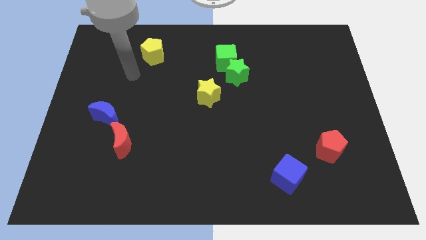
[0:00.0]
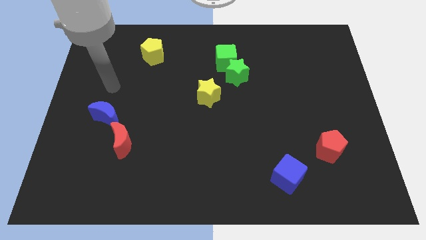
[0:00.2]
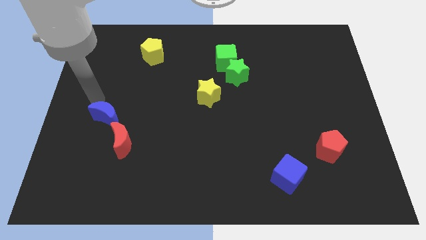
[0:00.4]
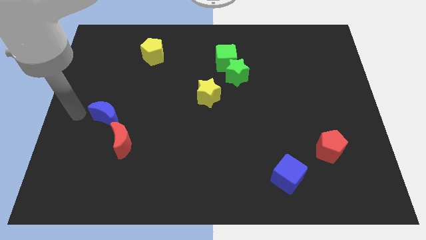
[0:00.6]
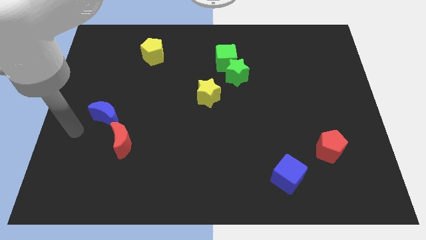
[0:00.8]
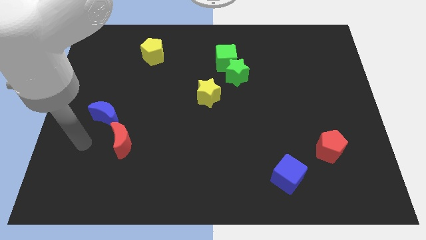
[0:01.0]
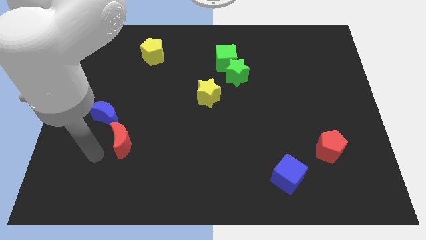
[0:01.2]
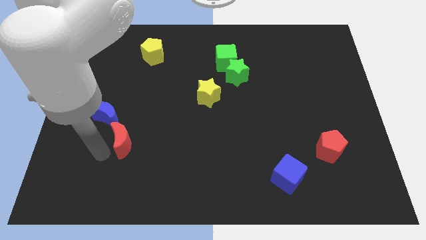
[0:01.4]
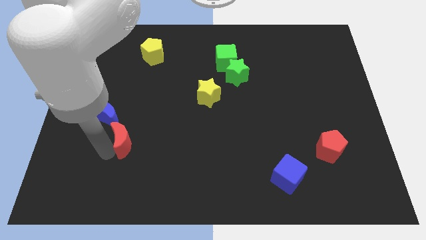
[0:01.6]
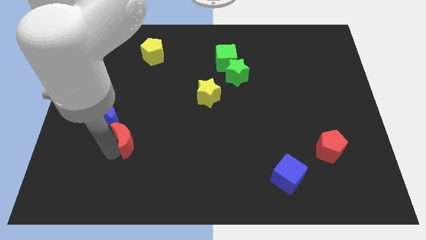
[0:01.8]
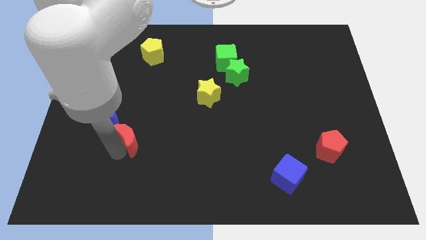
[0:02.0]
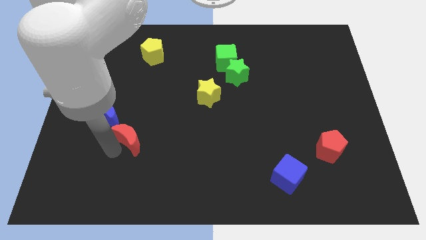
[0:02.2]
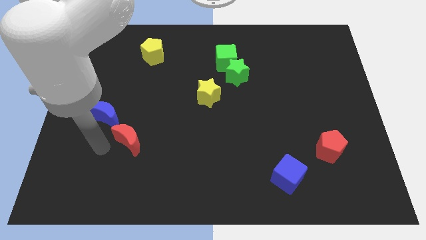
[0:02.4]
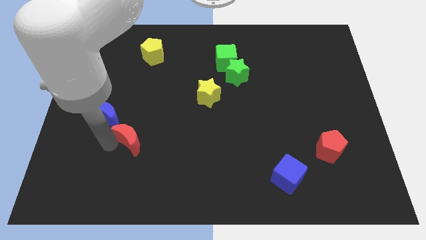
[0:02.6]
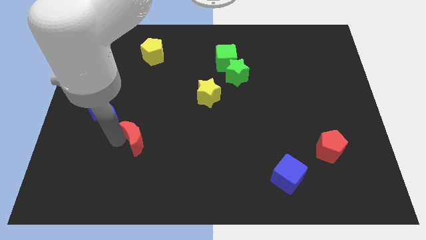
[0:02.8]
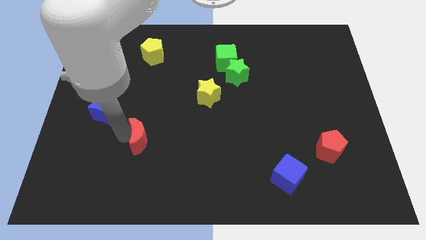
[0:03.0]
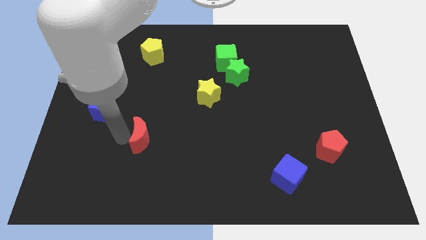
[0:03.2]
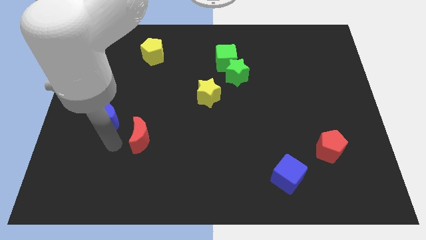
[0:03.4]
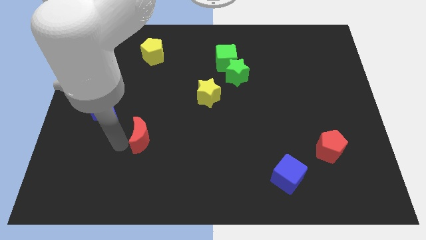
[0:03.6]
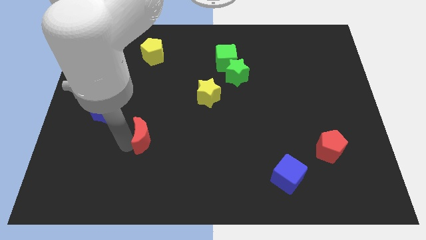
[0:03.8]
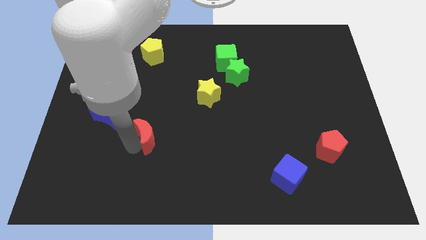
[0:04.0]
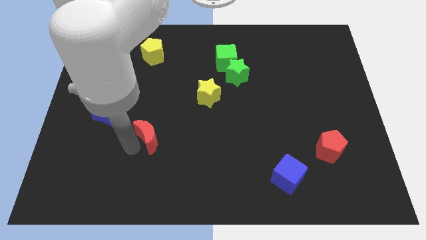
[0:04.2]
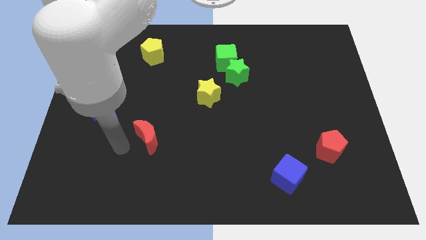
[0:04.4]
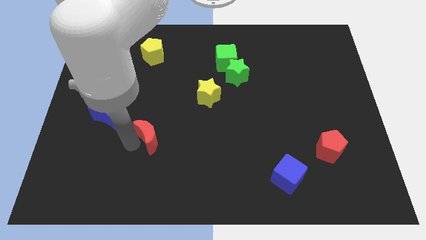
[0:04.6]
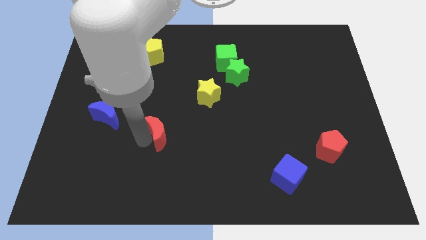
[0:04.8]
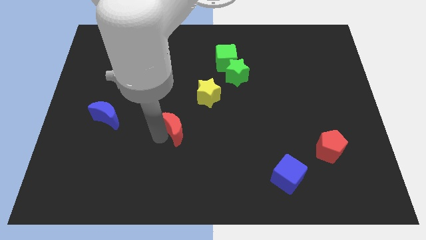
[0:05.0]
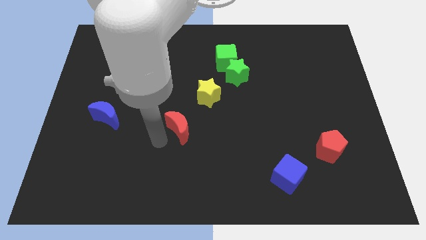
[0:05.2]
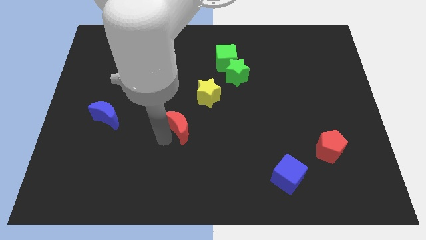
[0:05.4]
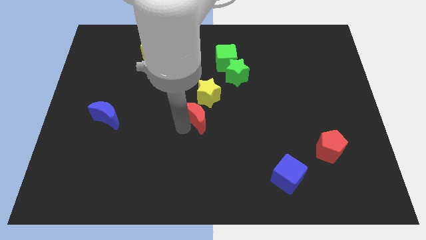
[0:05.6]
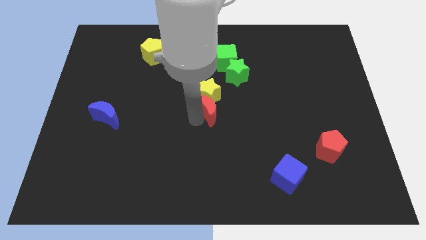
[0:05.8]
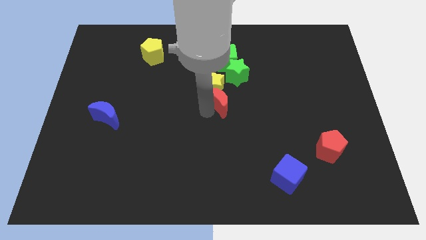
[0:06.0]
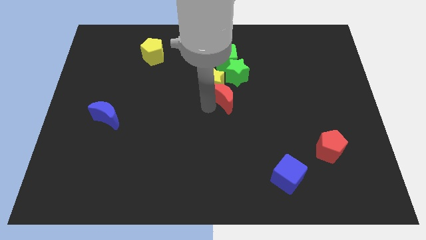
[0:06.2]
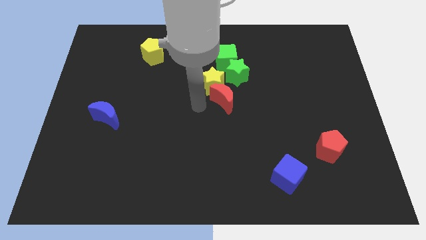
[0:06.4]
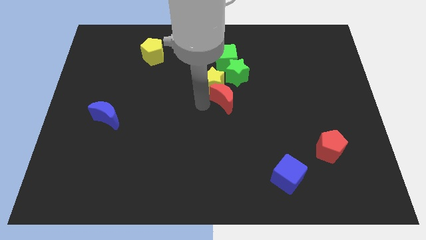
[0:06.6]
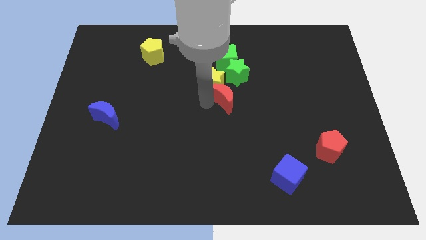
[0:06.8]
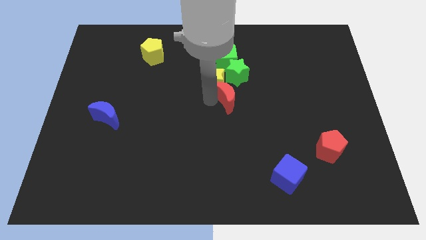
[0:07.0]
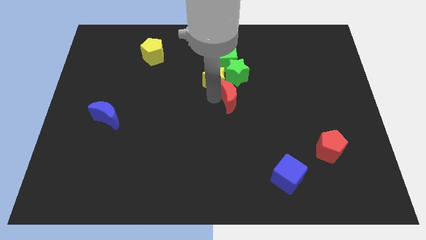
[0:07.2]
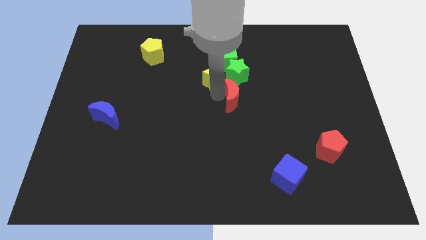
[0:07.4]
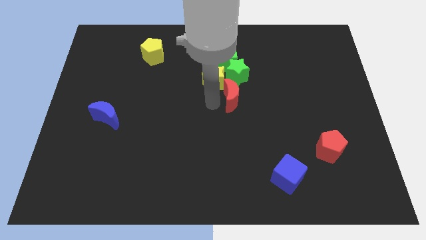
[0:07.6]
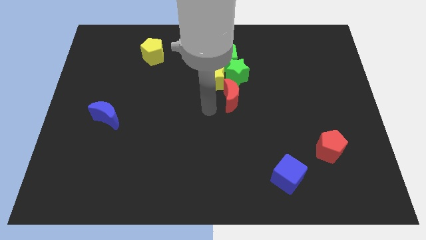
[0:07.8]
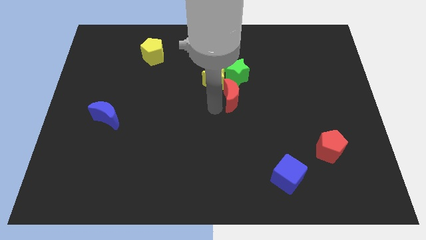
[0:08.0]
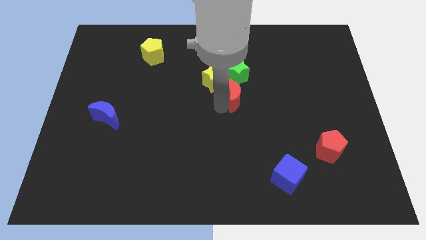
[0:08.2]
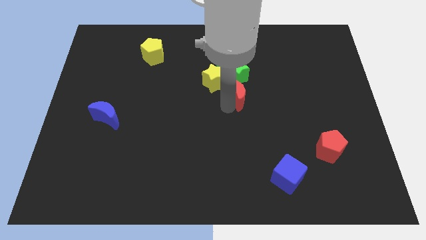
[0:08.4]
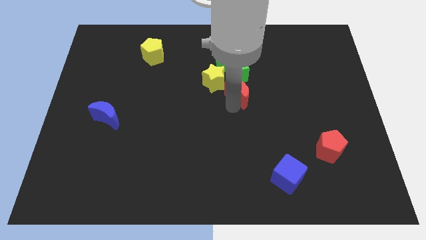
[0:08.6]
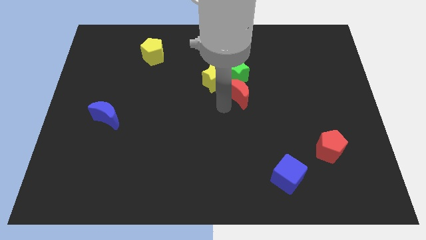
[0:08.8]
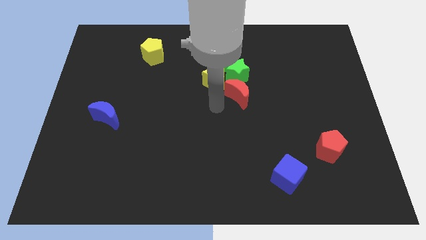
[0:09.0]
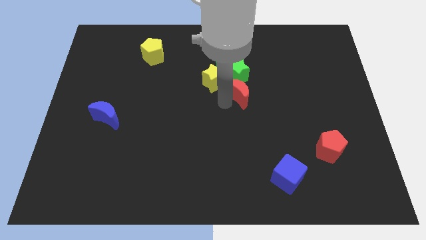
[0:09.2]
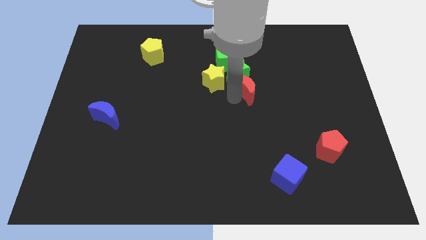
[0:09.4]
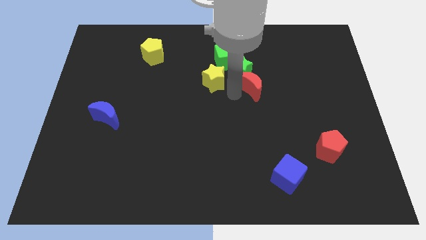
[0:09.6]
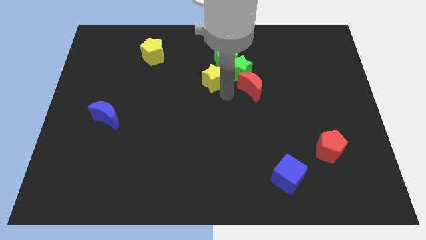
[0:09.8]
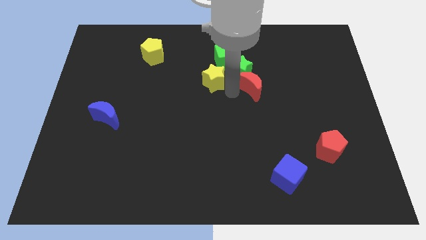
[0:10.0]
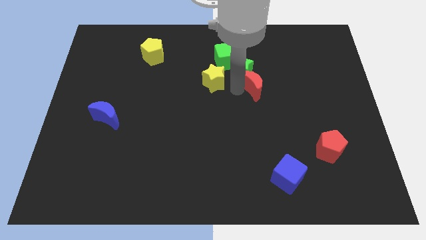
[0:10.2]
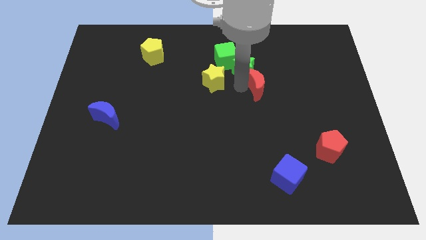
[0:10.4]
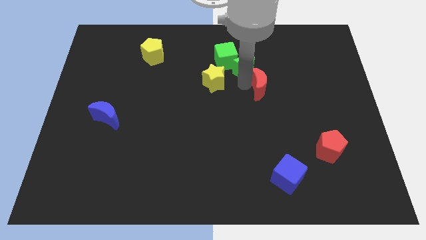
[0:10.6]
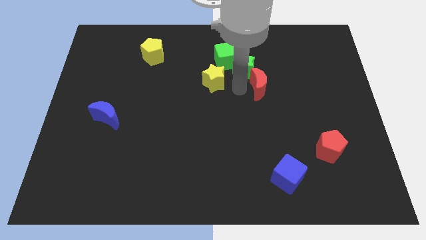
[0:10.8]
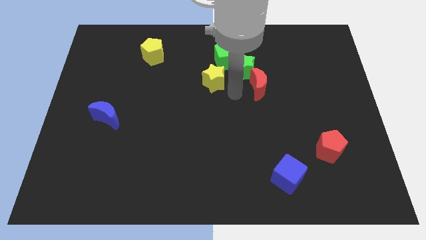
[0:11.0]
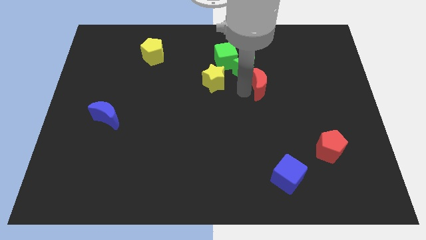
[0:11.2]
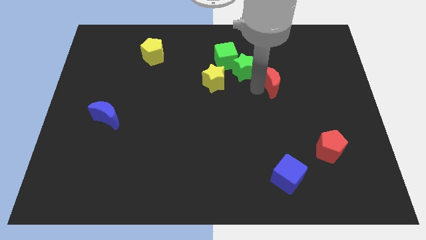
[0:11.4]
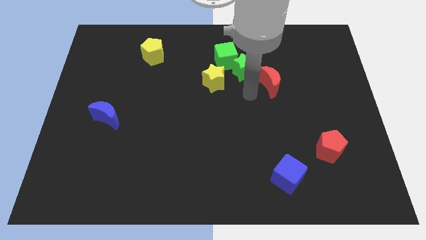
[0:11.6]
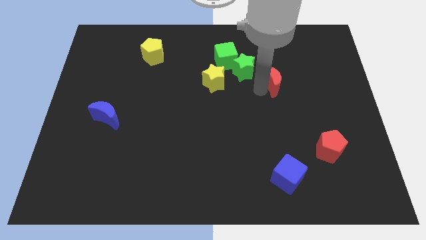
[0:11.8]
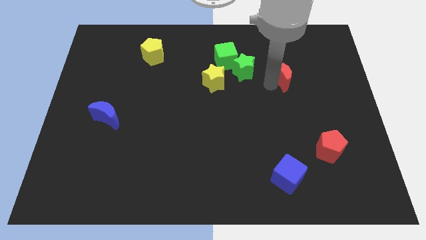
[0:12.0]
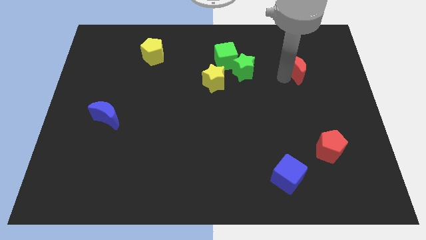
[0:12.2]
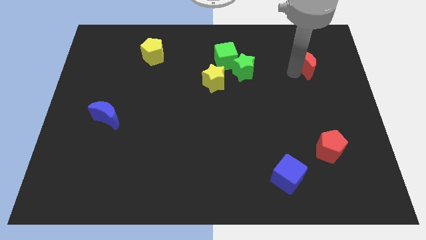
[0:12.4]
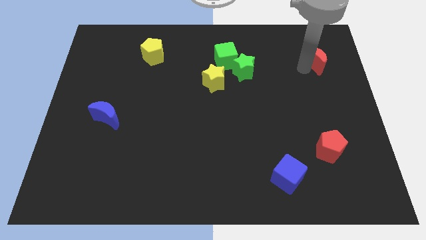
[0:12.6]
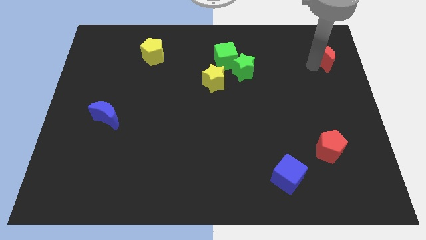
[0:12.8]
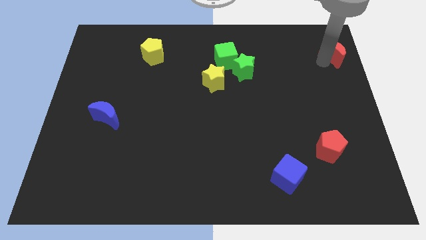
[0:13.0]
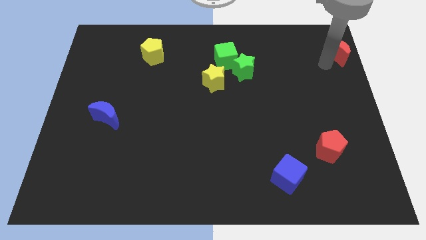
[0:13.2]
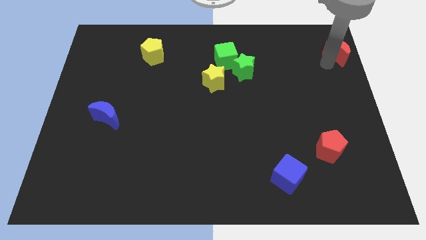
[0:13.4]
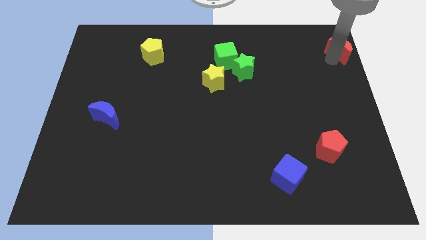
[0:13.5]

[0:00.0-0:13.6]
push the red moon to the upper right corner

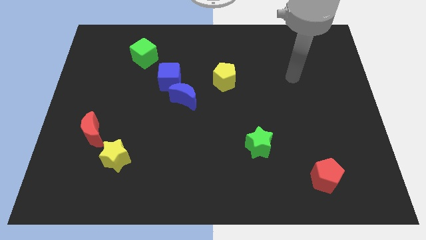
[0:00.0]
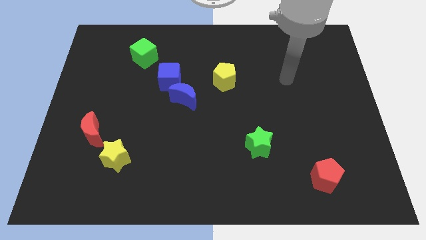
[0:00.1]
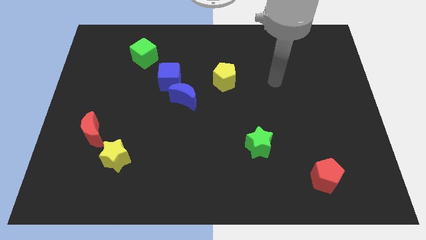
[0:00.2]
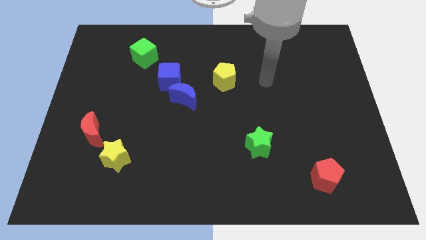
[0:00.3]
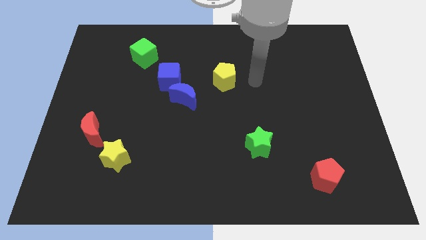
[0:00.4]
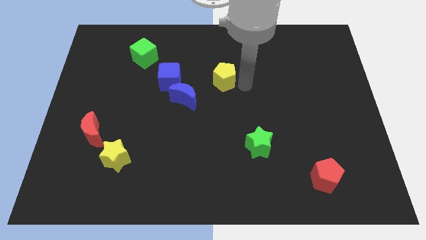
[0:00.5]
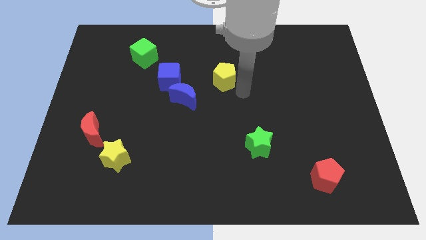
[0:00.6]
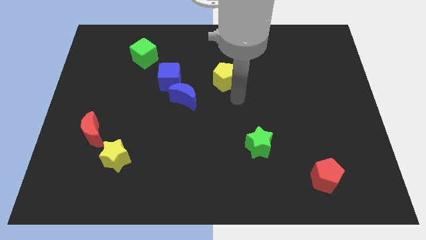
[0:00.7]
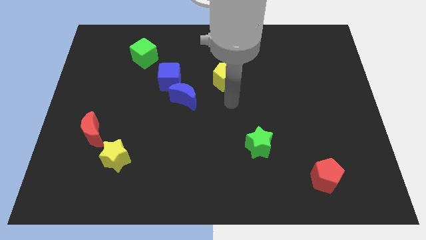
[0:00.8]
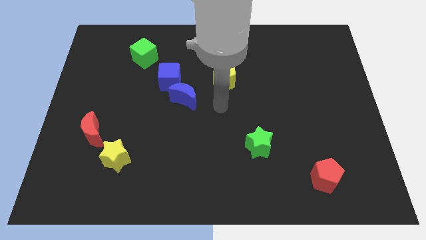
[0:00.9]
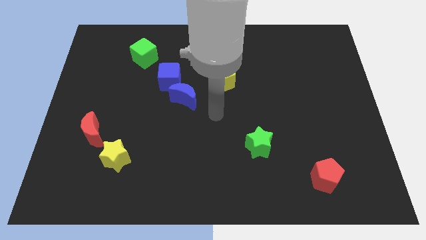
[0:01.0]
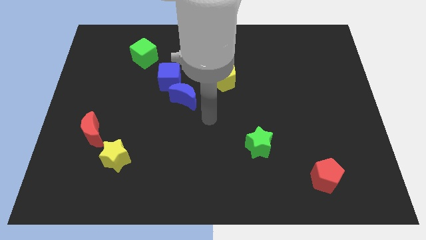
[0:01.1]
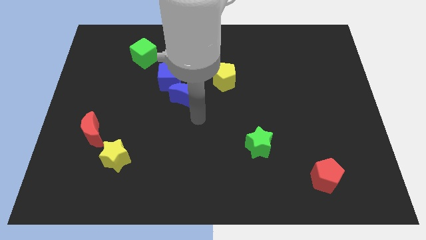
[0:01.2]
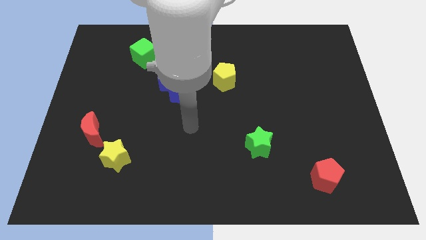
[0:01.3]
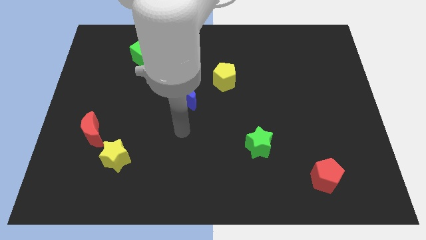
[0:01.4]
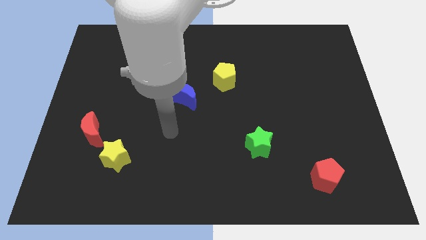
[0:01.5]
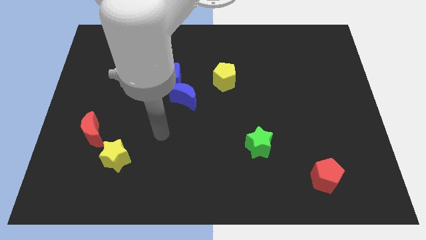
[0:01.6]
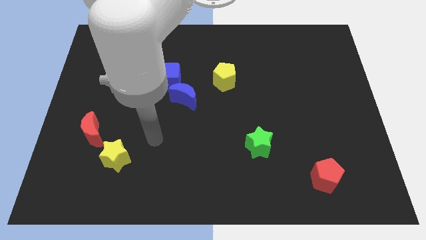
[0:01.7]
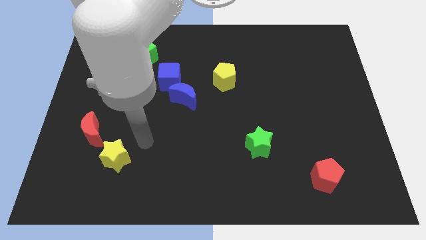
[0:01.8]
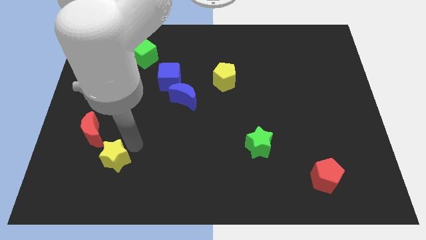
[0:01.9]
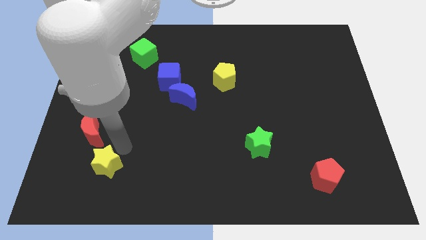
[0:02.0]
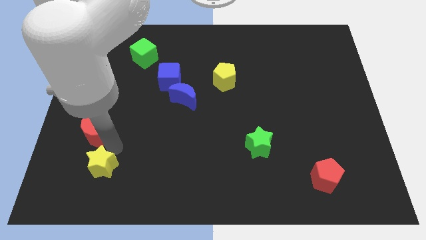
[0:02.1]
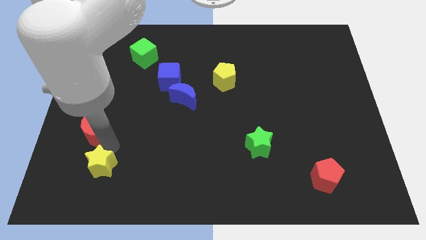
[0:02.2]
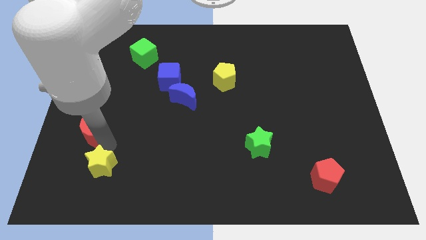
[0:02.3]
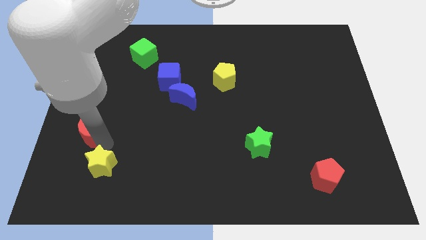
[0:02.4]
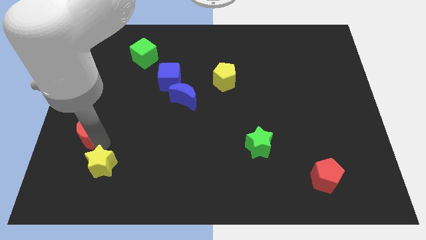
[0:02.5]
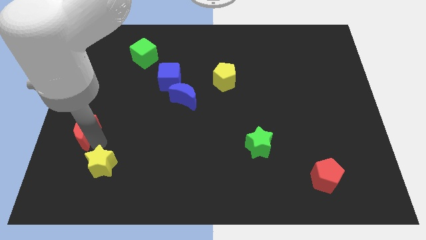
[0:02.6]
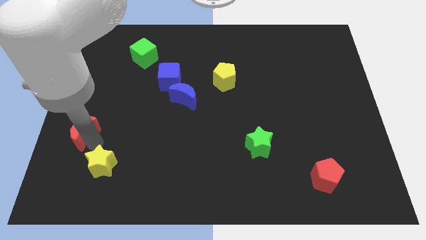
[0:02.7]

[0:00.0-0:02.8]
move the red moon to the left side
